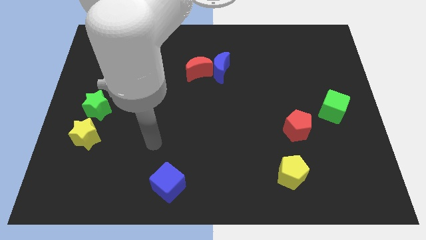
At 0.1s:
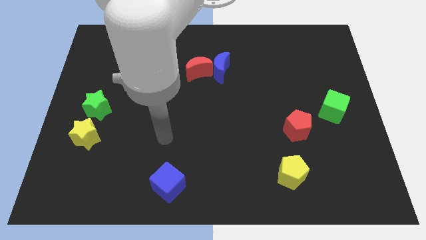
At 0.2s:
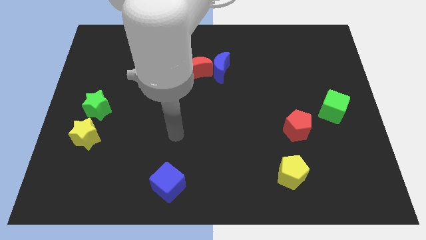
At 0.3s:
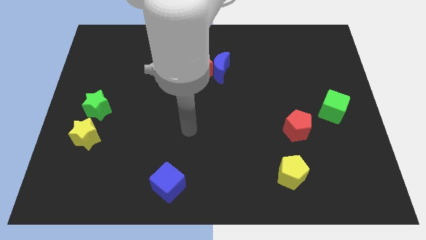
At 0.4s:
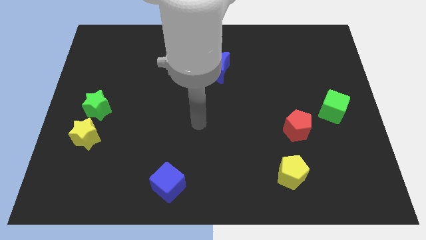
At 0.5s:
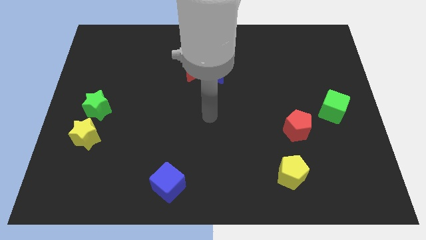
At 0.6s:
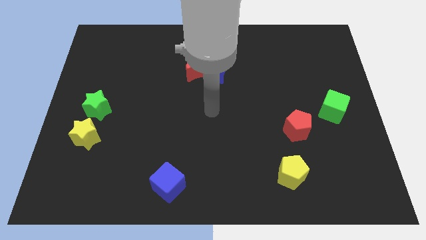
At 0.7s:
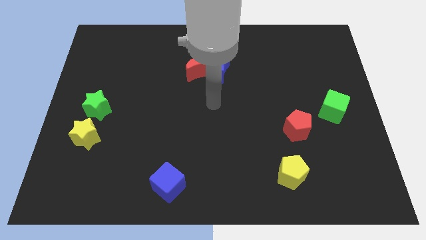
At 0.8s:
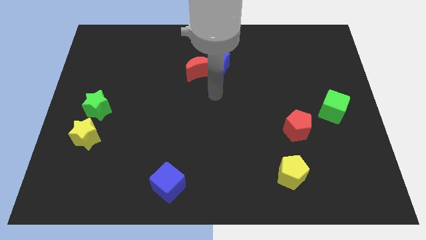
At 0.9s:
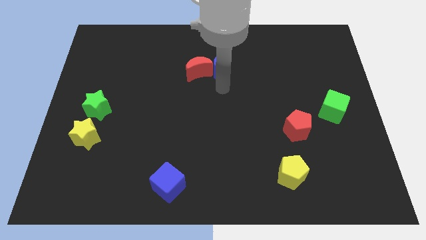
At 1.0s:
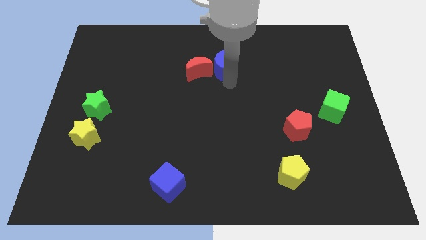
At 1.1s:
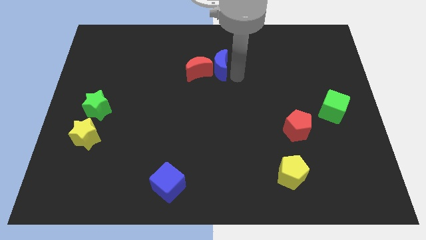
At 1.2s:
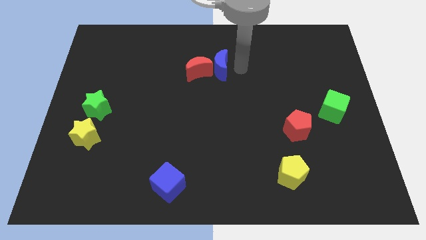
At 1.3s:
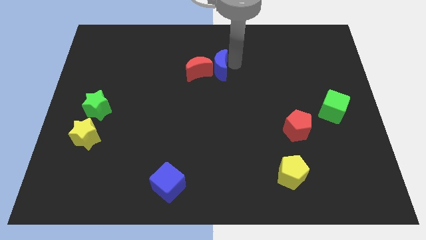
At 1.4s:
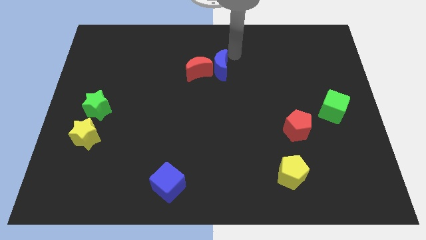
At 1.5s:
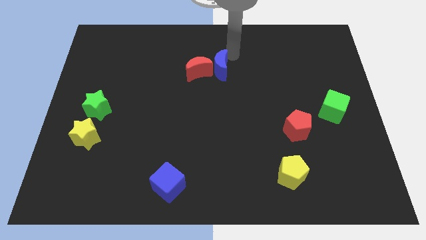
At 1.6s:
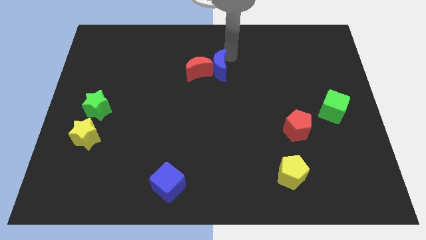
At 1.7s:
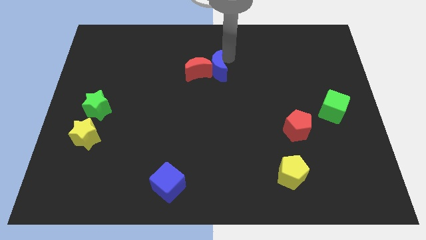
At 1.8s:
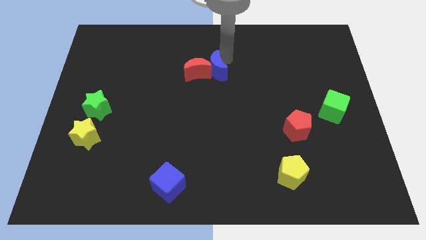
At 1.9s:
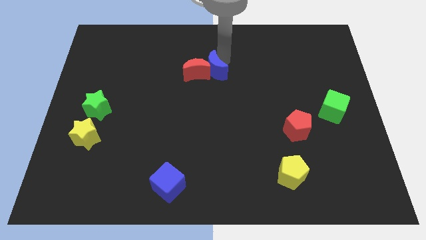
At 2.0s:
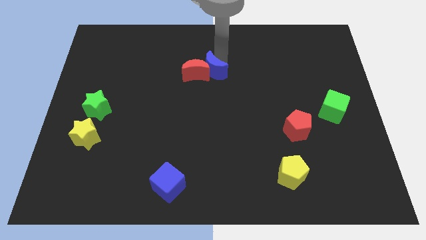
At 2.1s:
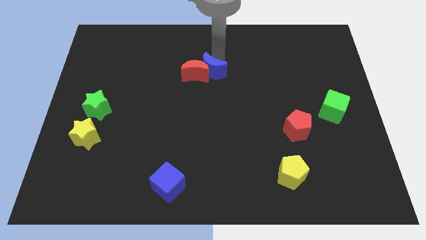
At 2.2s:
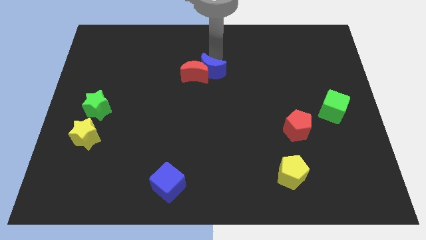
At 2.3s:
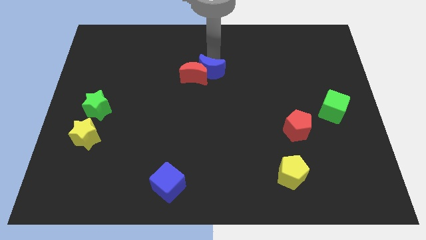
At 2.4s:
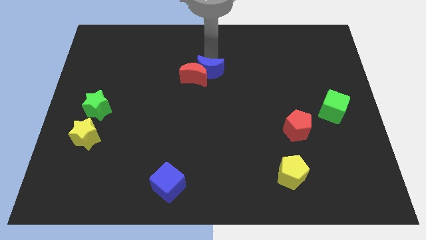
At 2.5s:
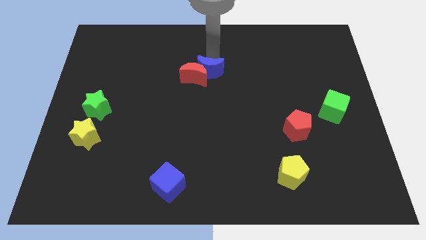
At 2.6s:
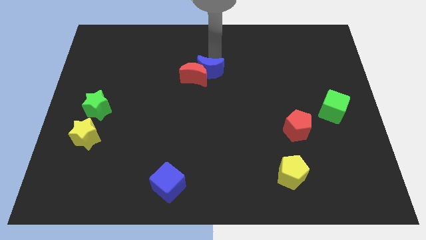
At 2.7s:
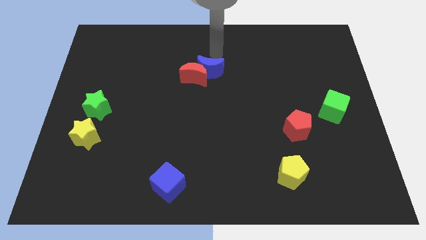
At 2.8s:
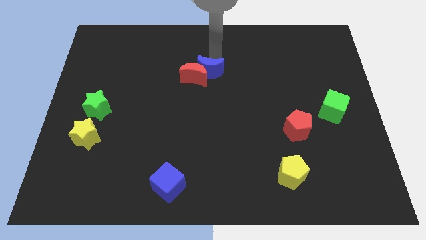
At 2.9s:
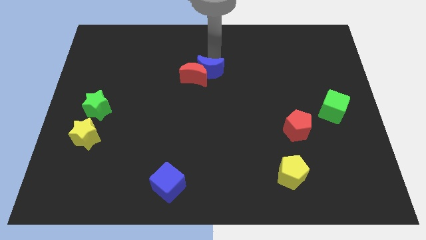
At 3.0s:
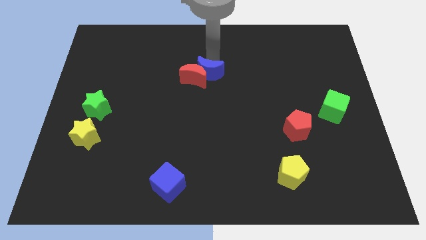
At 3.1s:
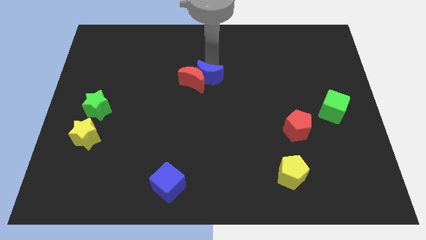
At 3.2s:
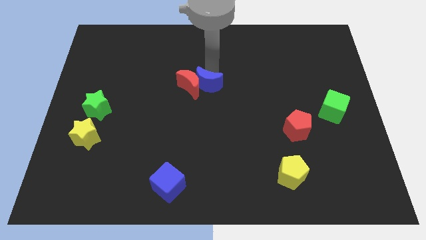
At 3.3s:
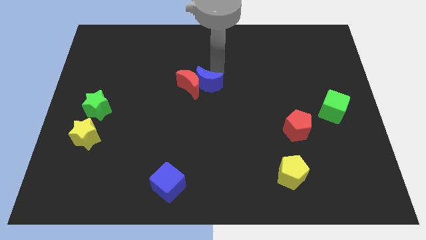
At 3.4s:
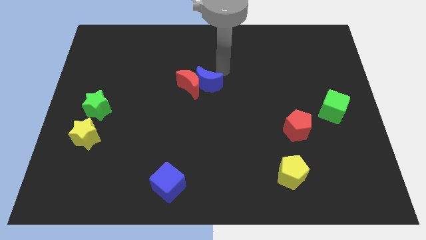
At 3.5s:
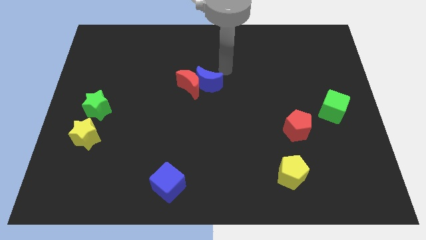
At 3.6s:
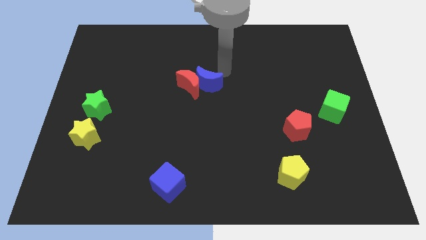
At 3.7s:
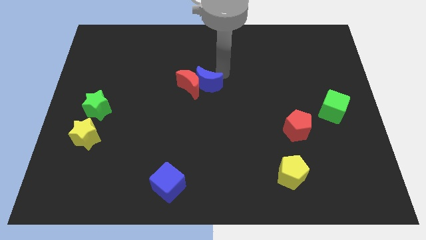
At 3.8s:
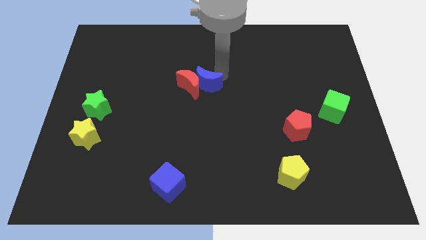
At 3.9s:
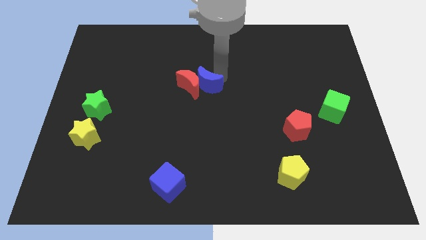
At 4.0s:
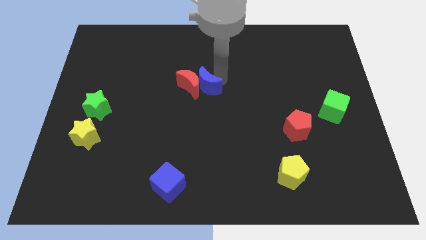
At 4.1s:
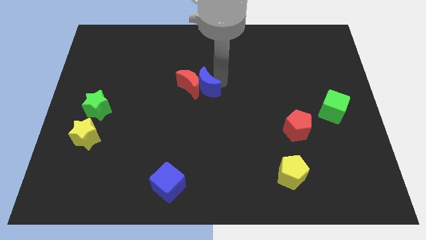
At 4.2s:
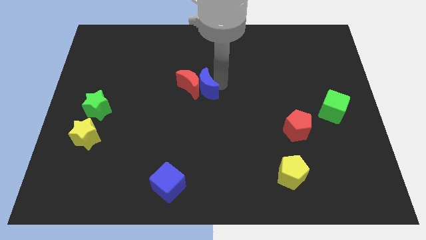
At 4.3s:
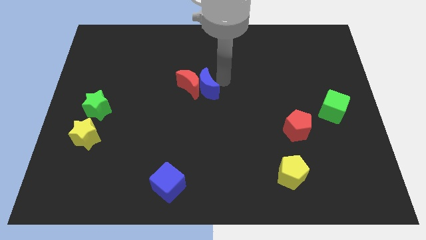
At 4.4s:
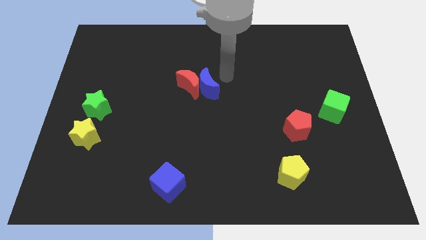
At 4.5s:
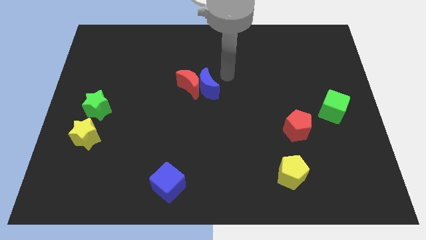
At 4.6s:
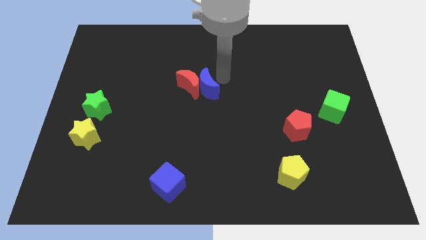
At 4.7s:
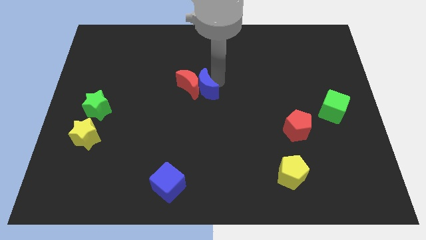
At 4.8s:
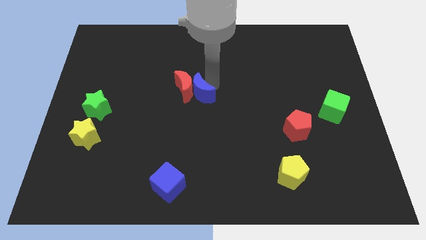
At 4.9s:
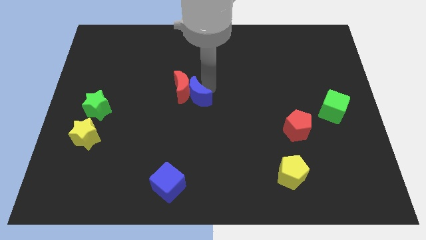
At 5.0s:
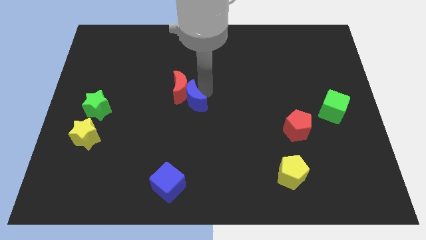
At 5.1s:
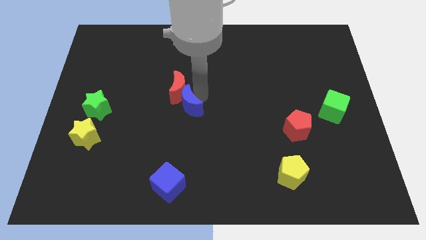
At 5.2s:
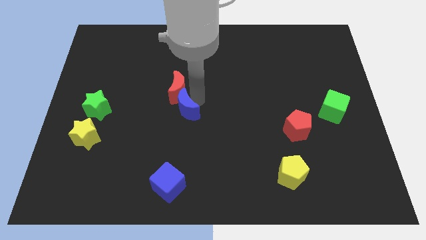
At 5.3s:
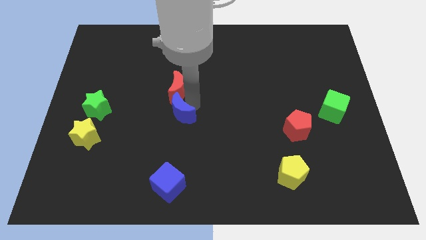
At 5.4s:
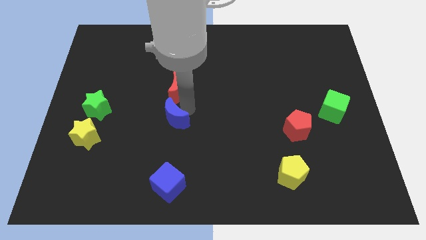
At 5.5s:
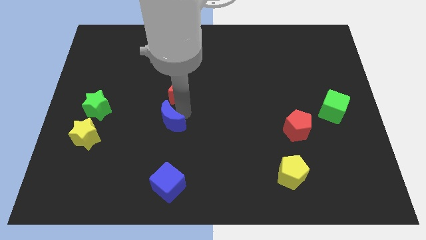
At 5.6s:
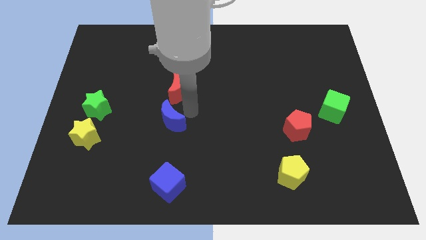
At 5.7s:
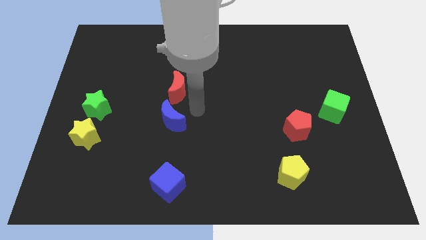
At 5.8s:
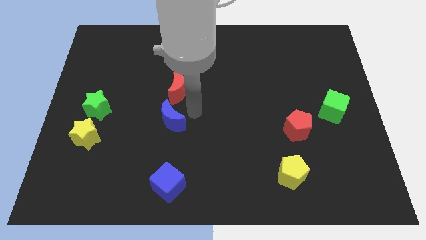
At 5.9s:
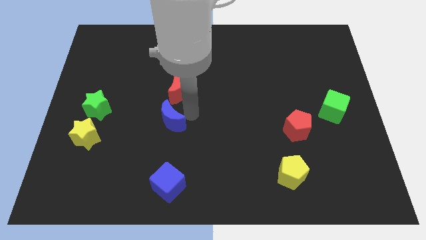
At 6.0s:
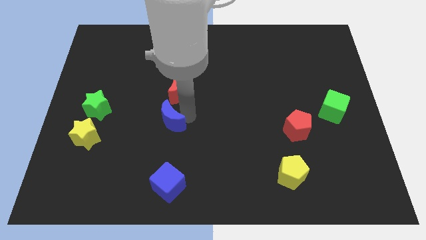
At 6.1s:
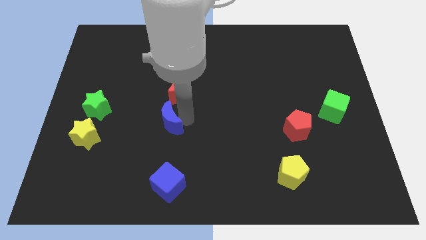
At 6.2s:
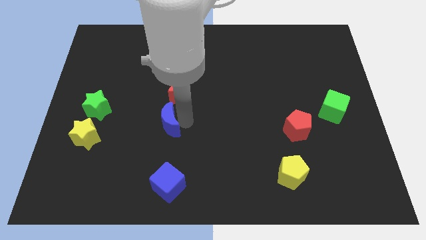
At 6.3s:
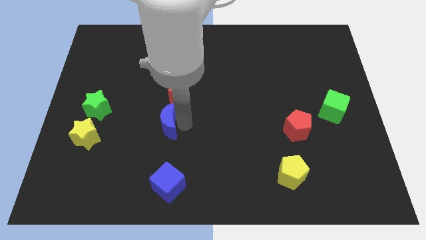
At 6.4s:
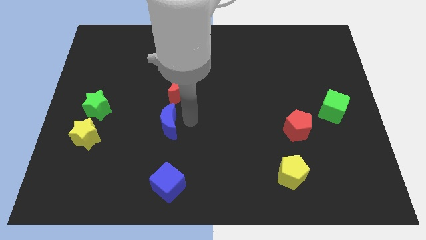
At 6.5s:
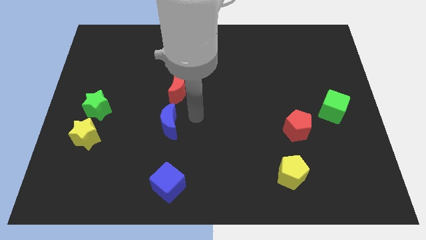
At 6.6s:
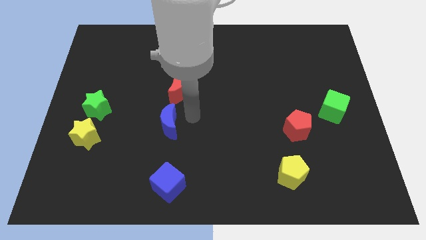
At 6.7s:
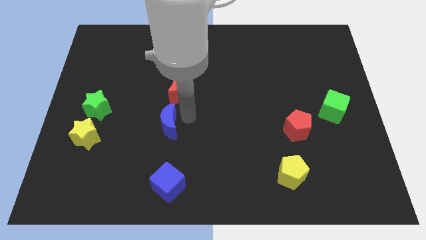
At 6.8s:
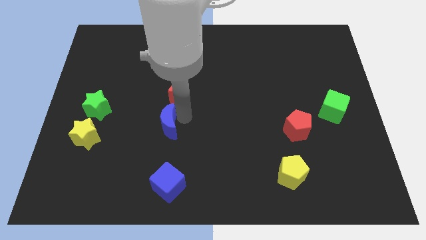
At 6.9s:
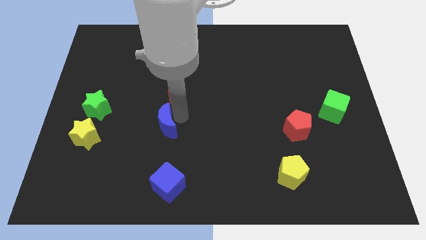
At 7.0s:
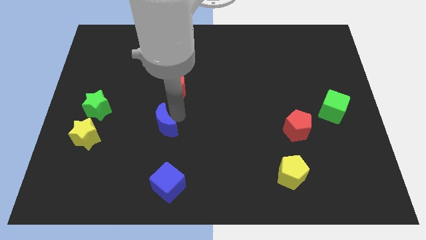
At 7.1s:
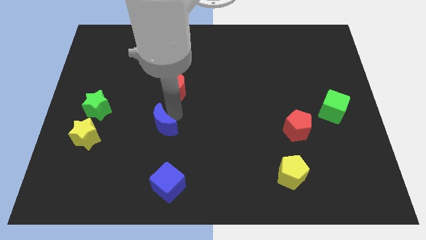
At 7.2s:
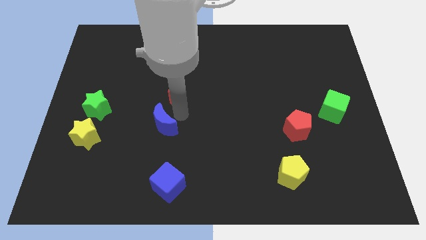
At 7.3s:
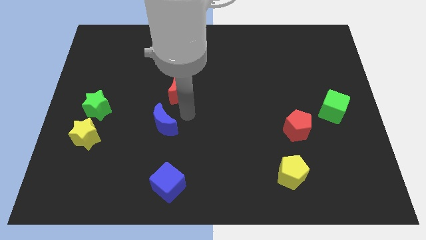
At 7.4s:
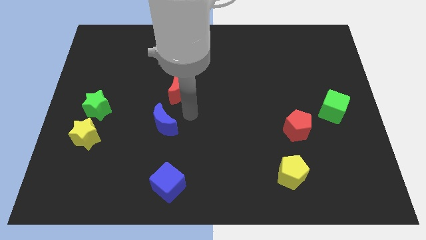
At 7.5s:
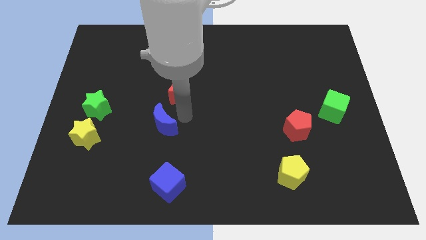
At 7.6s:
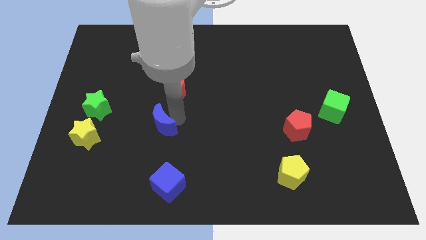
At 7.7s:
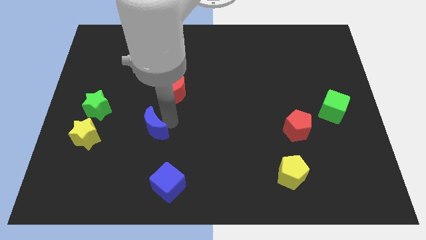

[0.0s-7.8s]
move the blue moon right of the yellow star

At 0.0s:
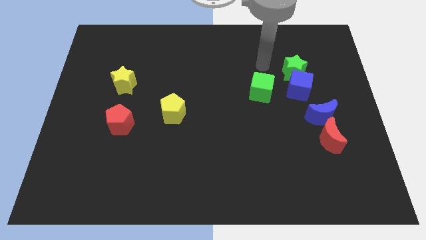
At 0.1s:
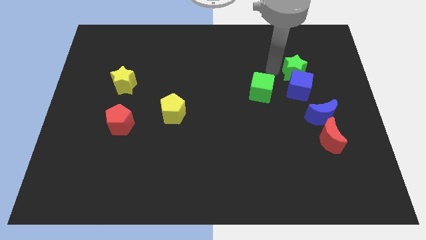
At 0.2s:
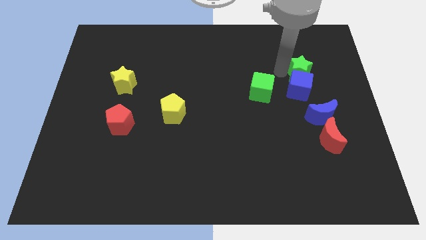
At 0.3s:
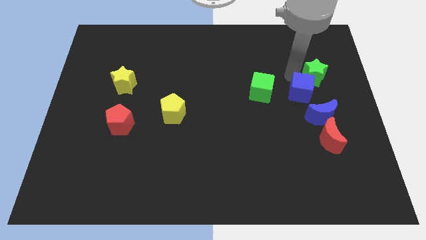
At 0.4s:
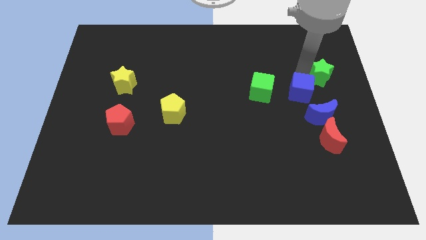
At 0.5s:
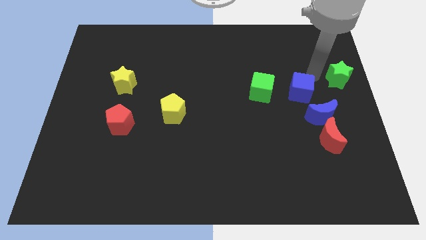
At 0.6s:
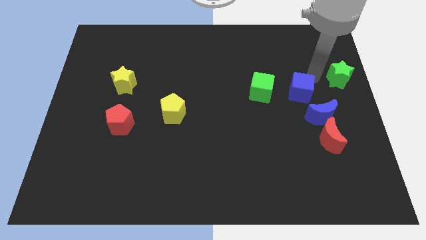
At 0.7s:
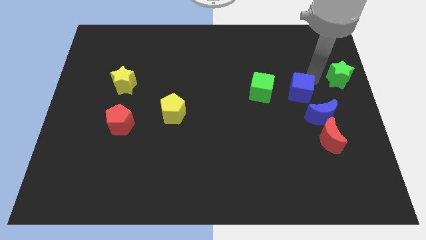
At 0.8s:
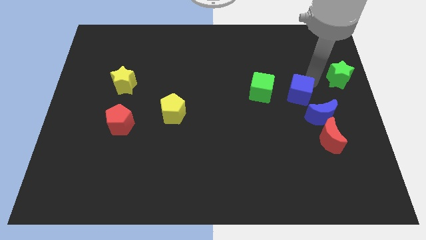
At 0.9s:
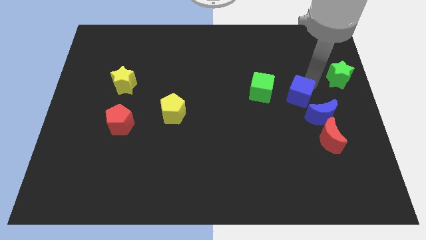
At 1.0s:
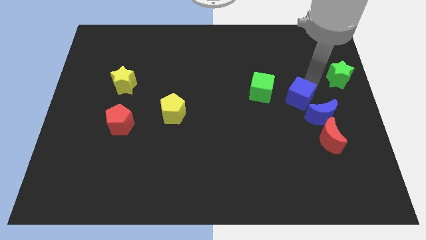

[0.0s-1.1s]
move the blue cube to the bottom right side of the green cube
